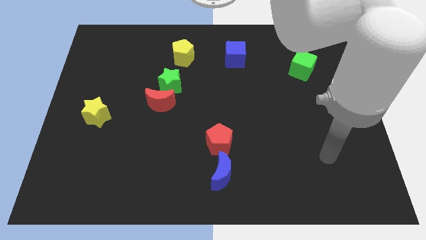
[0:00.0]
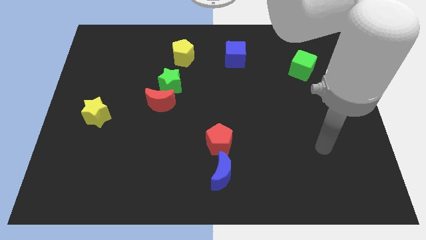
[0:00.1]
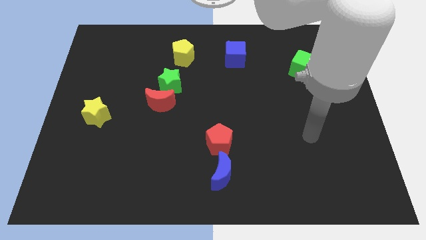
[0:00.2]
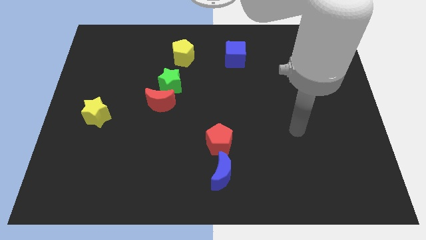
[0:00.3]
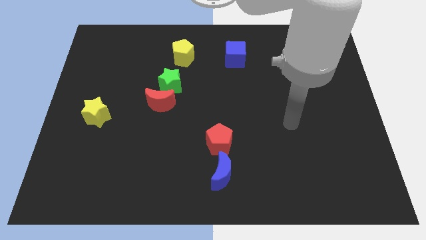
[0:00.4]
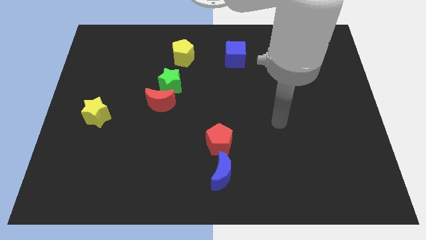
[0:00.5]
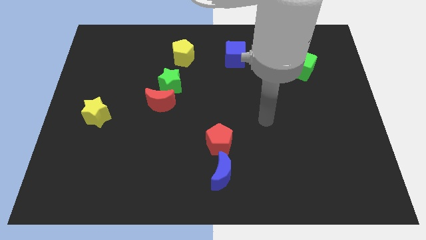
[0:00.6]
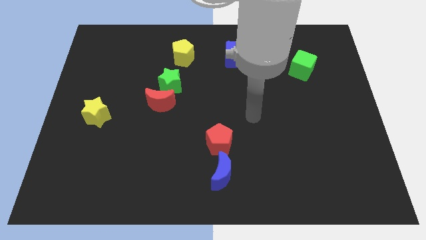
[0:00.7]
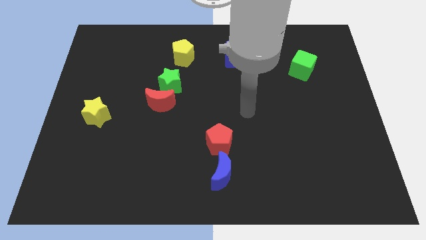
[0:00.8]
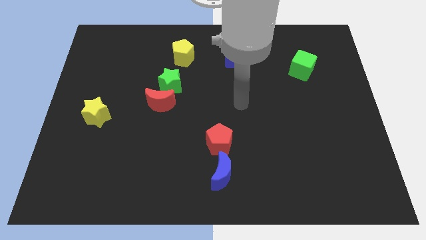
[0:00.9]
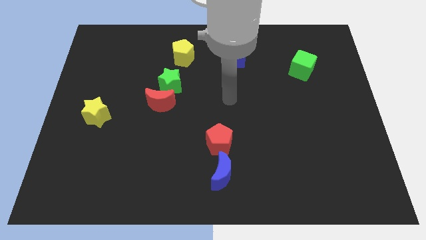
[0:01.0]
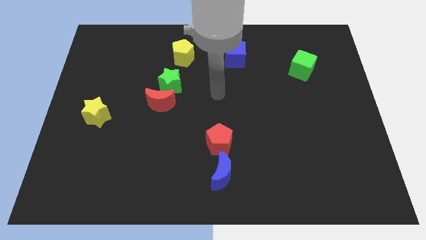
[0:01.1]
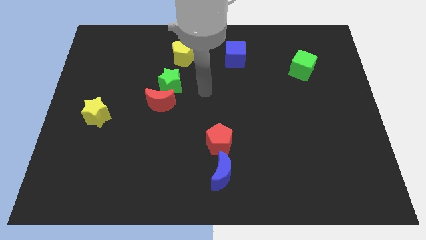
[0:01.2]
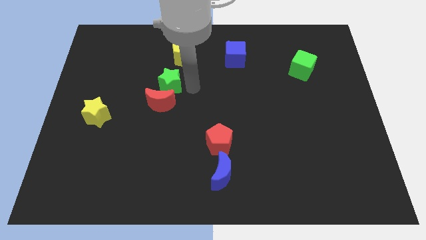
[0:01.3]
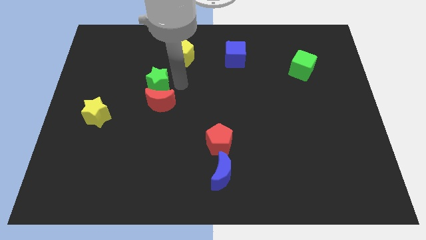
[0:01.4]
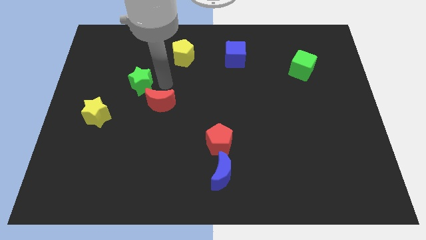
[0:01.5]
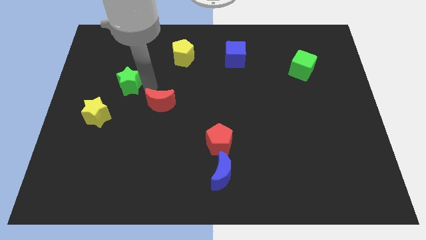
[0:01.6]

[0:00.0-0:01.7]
pull the red moon apart from the green star

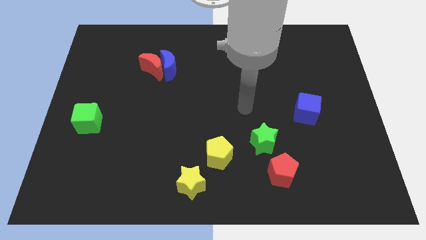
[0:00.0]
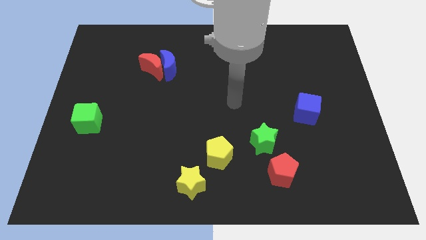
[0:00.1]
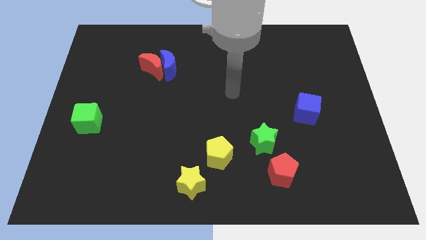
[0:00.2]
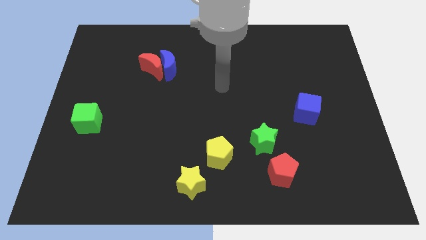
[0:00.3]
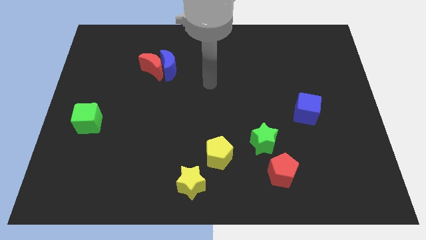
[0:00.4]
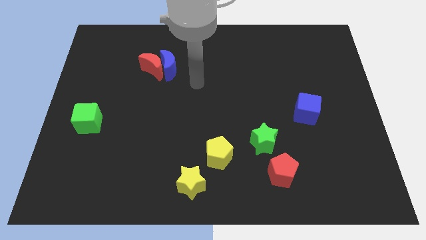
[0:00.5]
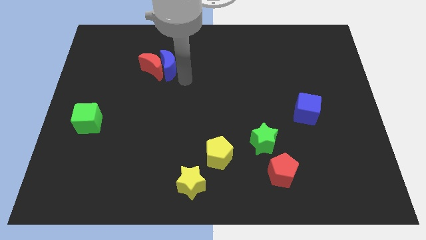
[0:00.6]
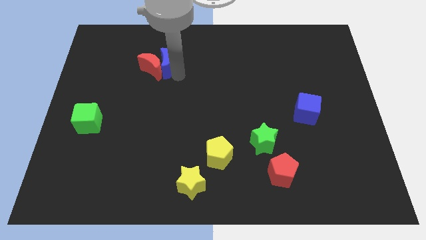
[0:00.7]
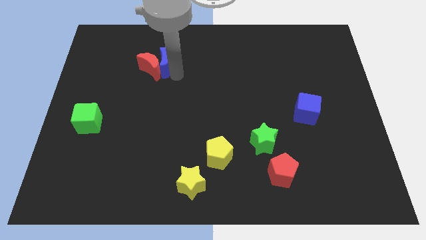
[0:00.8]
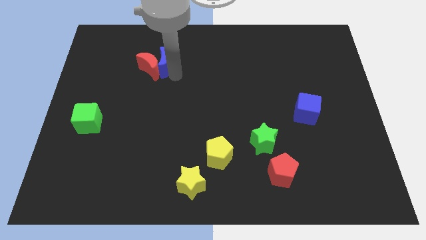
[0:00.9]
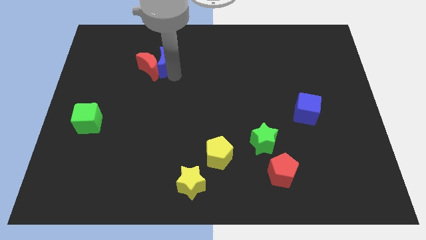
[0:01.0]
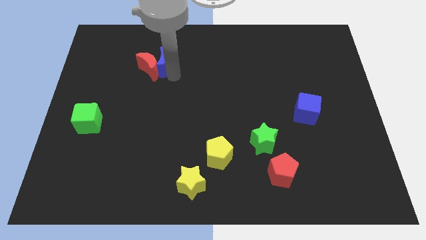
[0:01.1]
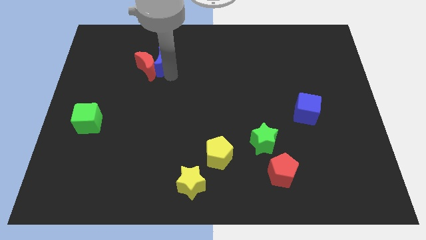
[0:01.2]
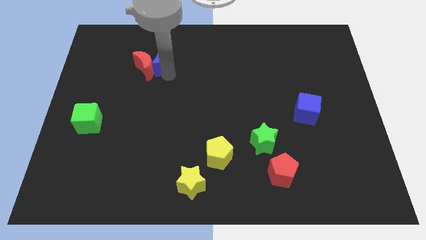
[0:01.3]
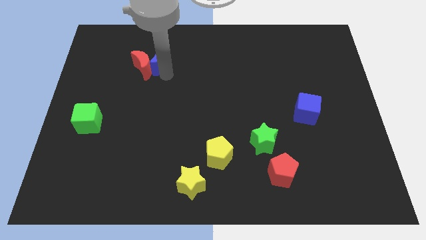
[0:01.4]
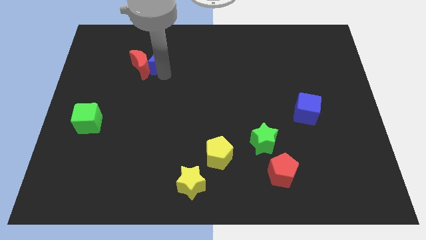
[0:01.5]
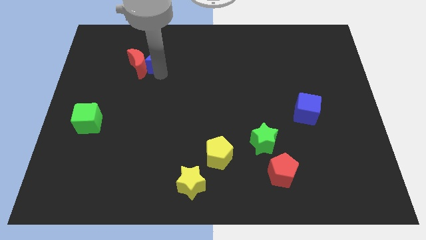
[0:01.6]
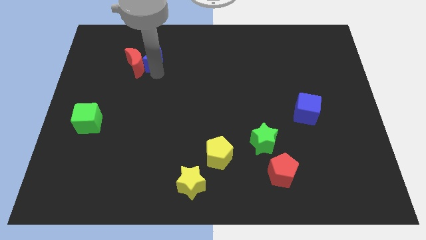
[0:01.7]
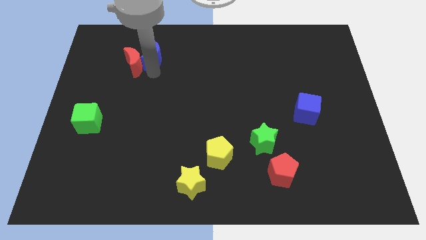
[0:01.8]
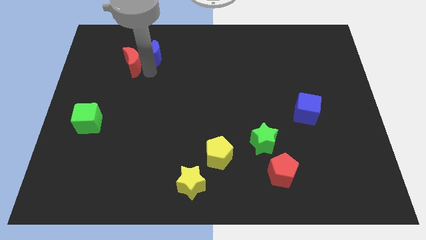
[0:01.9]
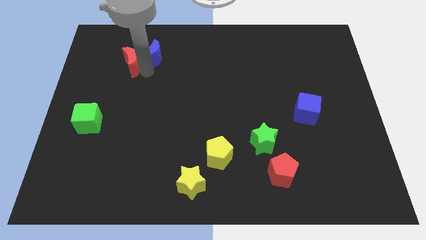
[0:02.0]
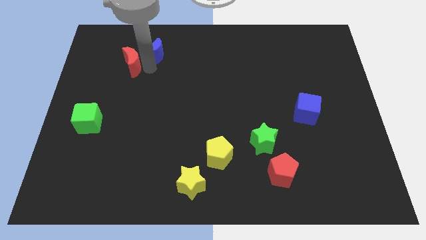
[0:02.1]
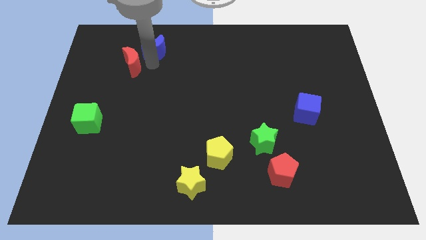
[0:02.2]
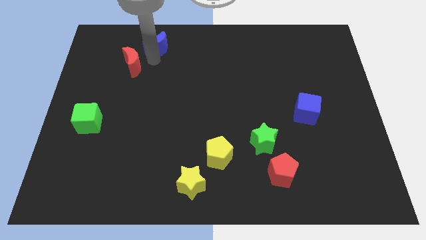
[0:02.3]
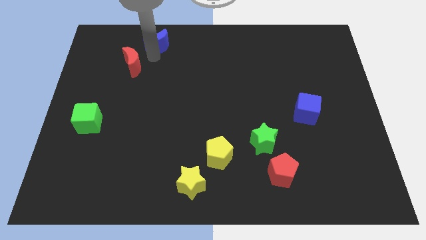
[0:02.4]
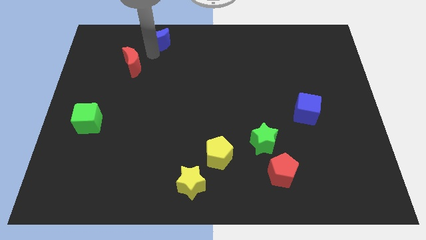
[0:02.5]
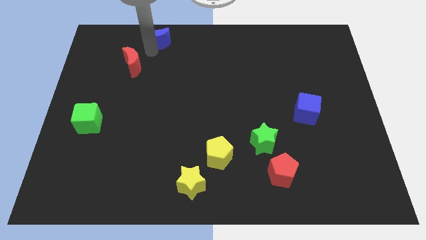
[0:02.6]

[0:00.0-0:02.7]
pull the red moon apart from the blue moon

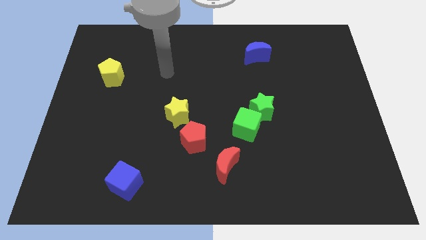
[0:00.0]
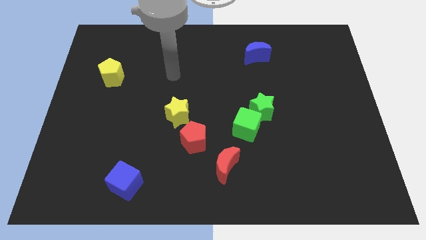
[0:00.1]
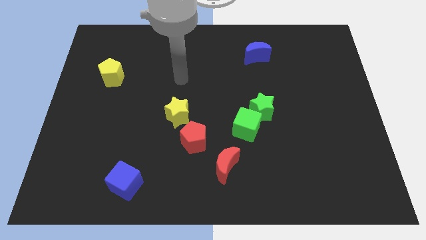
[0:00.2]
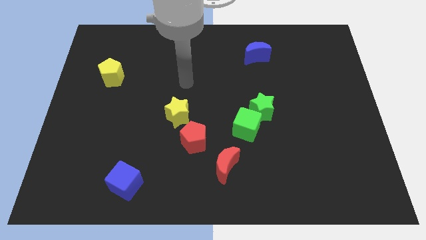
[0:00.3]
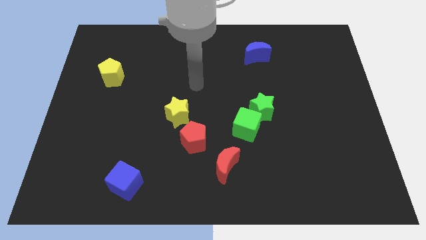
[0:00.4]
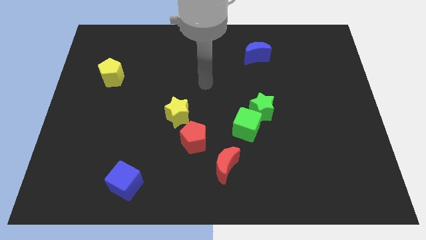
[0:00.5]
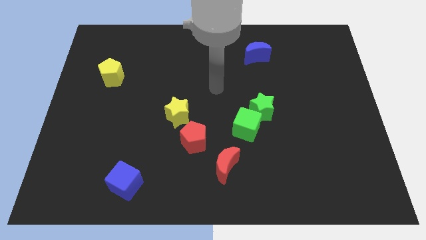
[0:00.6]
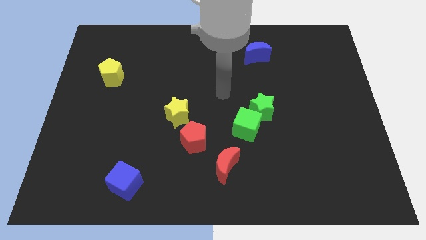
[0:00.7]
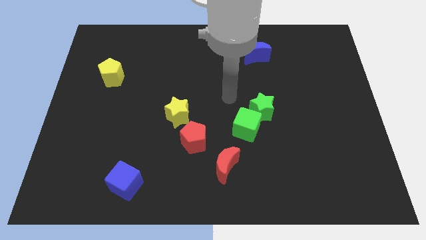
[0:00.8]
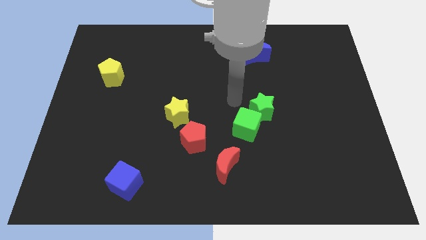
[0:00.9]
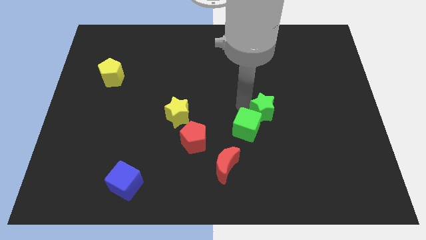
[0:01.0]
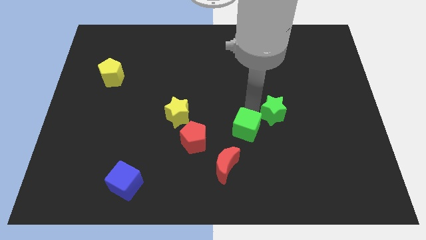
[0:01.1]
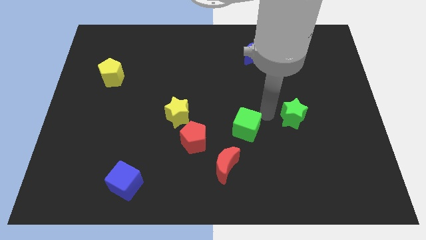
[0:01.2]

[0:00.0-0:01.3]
pull the green cube apart from the green star

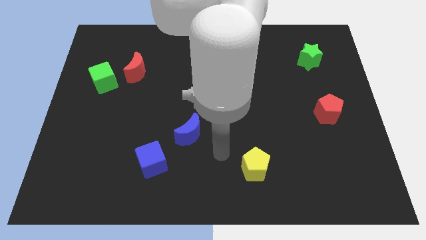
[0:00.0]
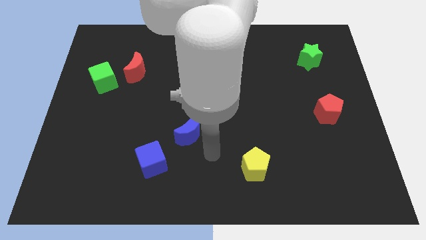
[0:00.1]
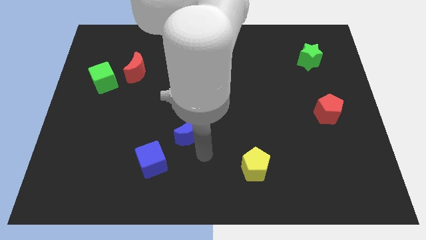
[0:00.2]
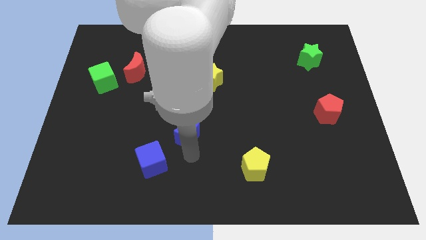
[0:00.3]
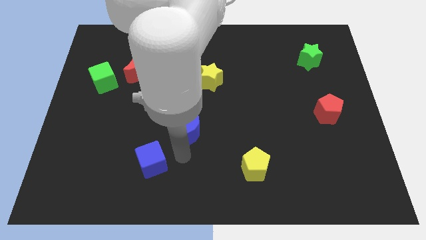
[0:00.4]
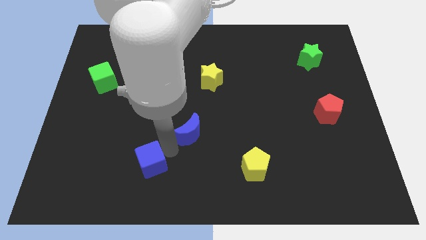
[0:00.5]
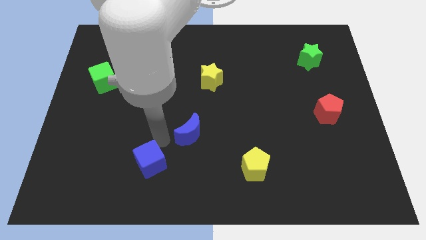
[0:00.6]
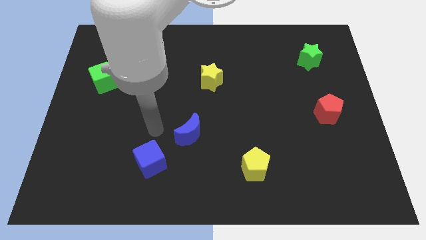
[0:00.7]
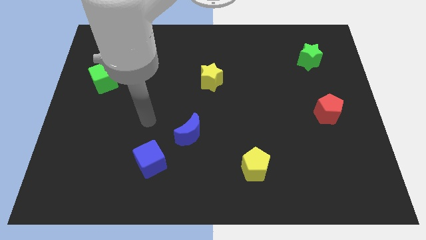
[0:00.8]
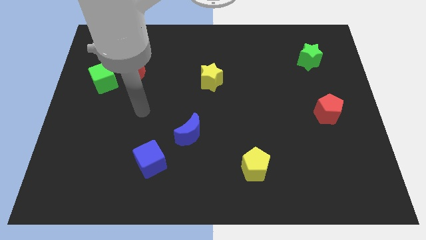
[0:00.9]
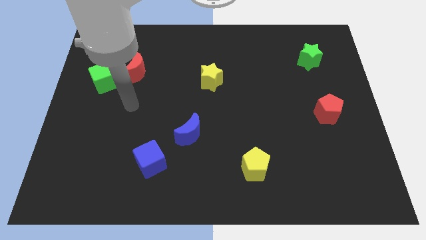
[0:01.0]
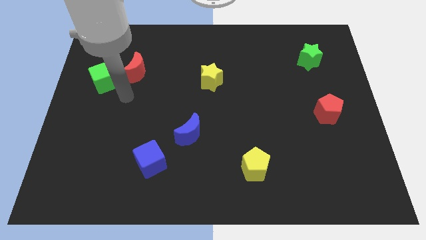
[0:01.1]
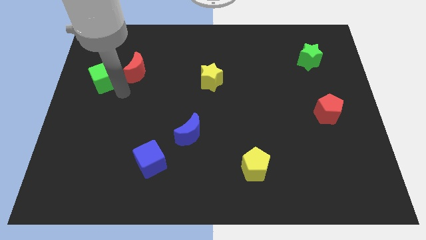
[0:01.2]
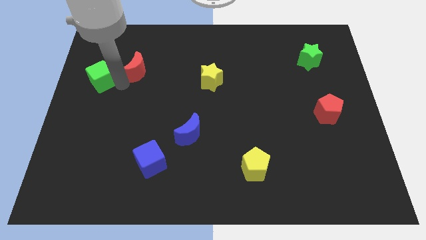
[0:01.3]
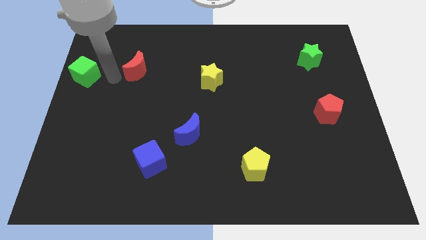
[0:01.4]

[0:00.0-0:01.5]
move the red moon away from the green cube

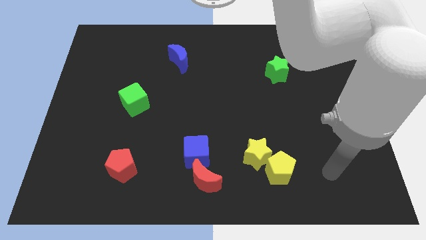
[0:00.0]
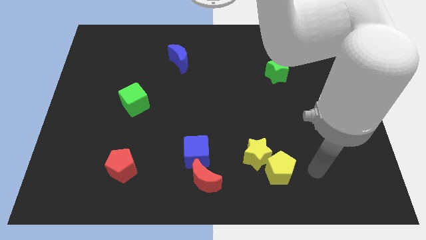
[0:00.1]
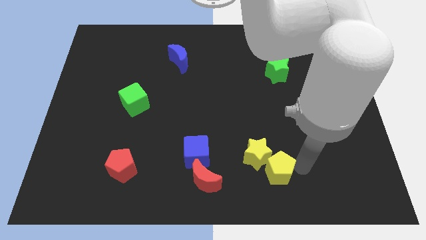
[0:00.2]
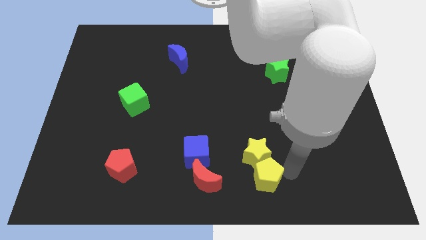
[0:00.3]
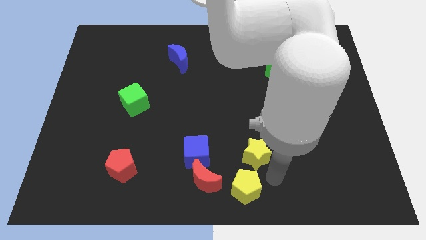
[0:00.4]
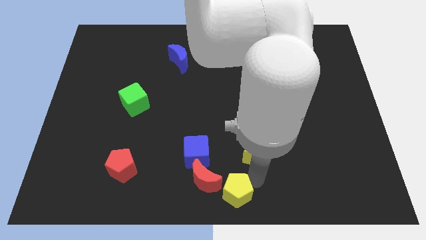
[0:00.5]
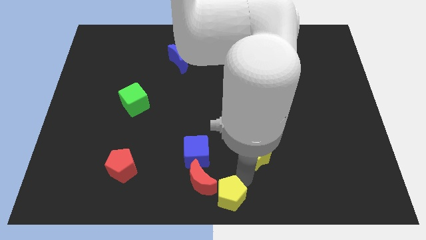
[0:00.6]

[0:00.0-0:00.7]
separate the yellow star from the yellow pentagon

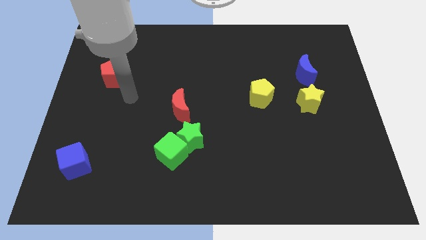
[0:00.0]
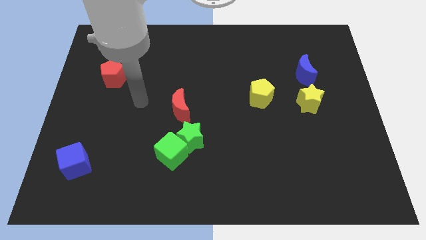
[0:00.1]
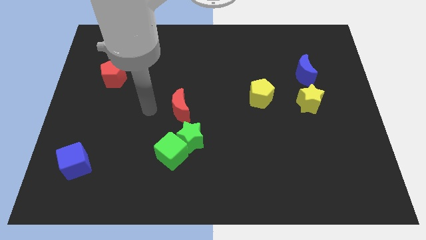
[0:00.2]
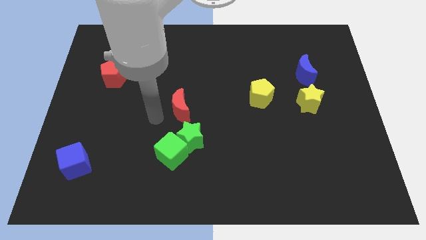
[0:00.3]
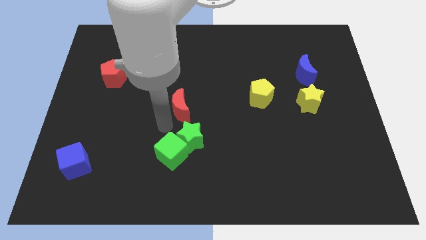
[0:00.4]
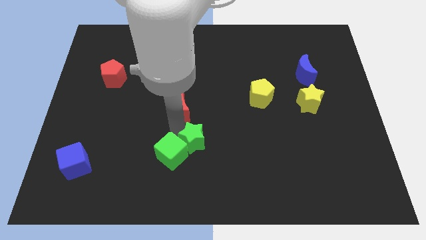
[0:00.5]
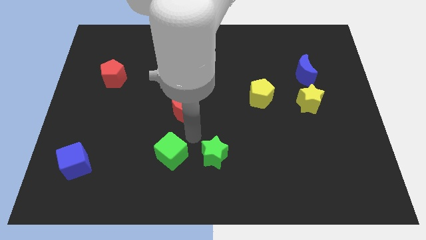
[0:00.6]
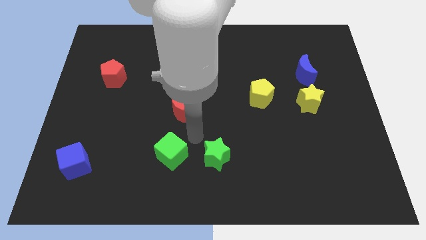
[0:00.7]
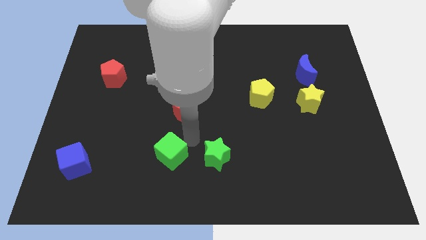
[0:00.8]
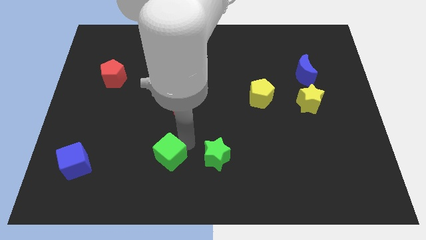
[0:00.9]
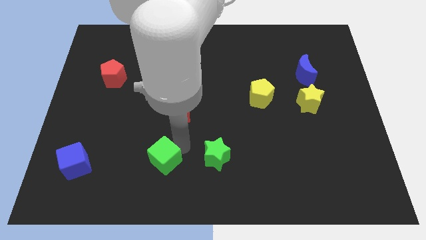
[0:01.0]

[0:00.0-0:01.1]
move the green cube away from the green star

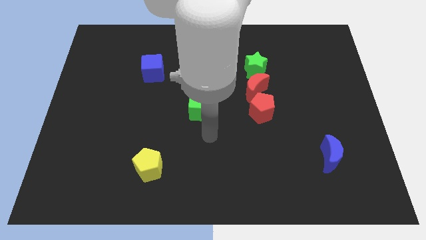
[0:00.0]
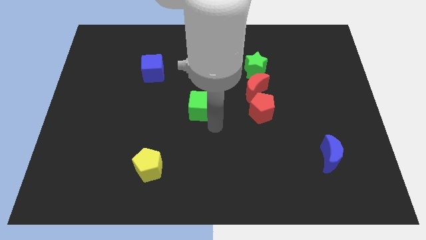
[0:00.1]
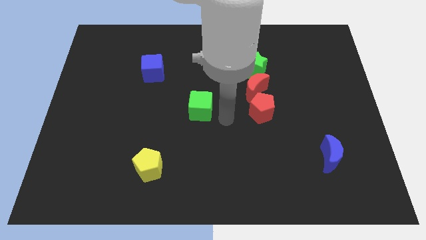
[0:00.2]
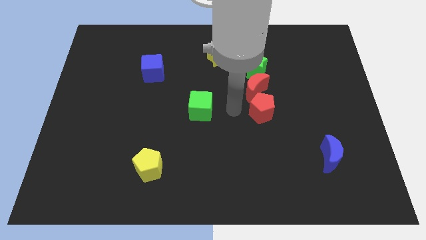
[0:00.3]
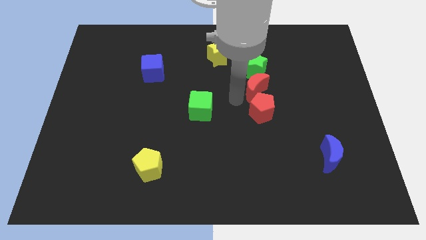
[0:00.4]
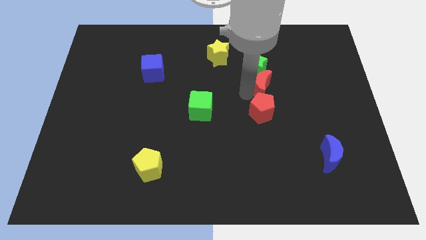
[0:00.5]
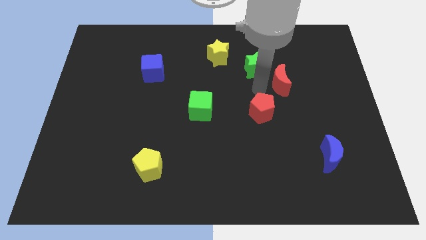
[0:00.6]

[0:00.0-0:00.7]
pull the red pentagon apart from the red moon
